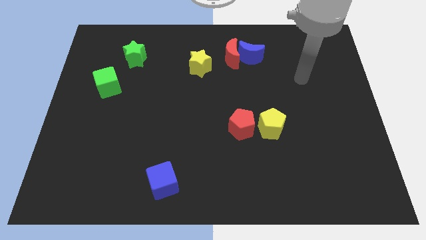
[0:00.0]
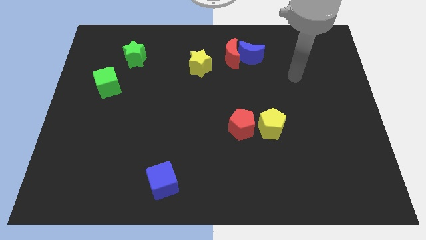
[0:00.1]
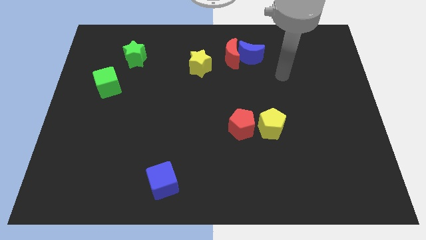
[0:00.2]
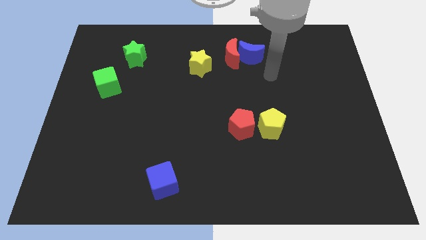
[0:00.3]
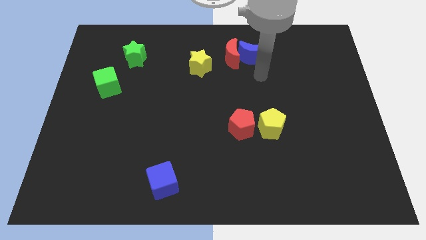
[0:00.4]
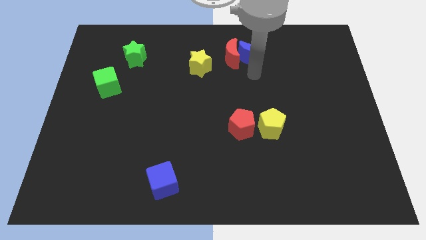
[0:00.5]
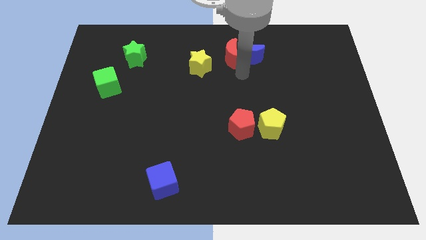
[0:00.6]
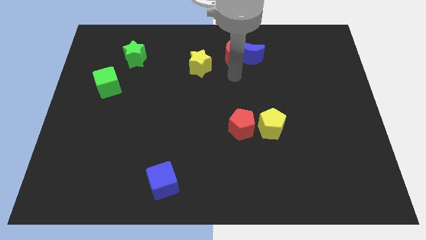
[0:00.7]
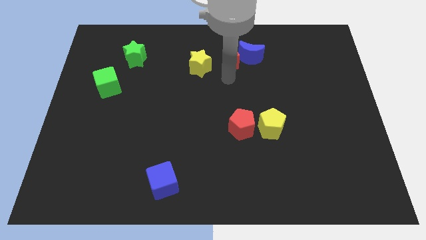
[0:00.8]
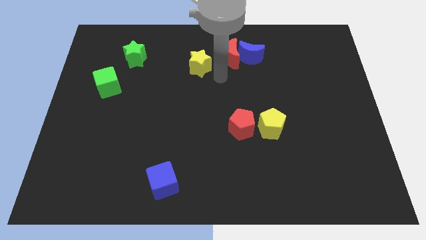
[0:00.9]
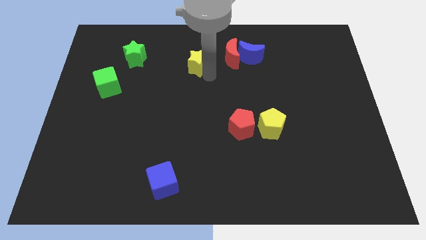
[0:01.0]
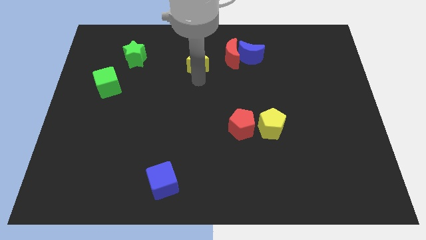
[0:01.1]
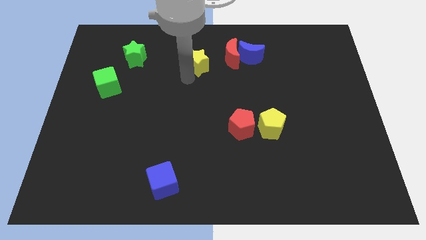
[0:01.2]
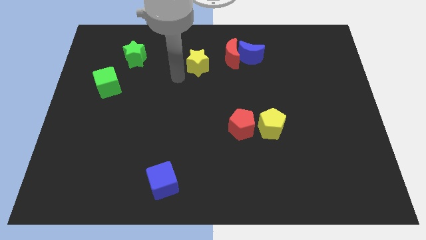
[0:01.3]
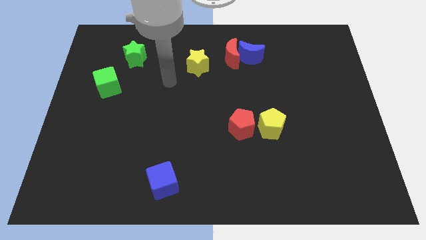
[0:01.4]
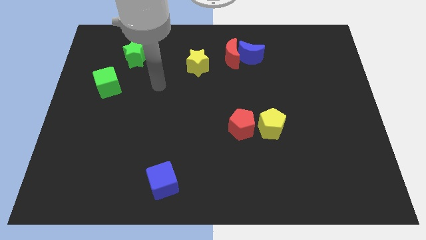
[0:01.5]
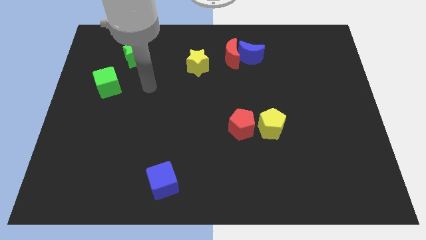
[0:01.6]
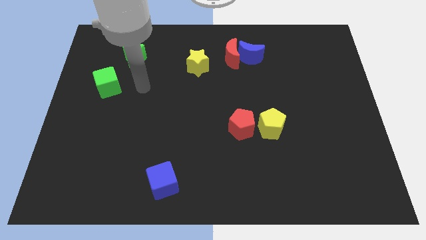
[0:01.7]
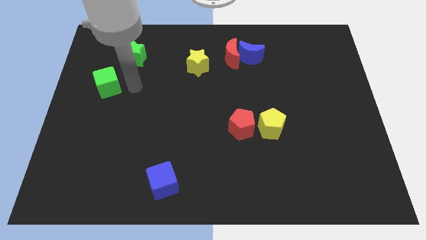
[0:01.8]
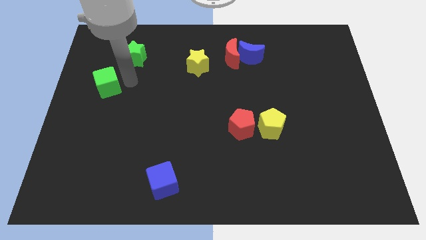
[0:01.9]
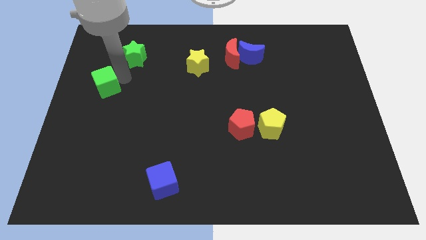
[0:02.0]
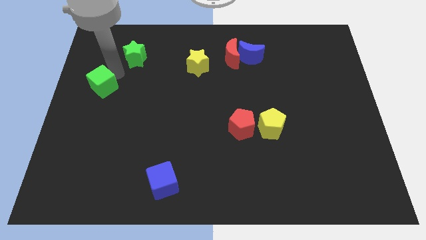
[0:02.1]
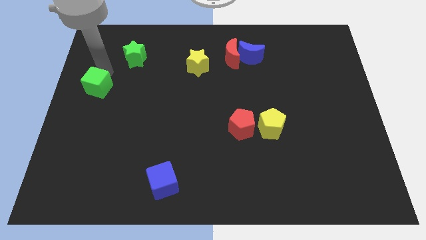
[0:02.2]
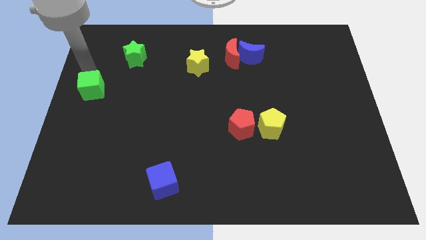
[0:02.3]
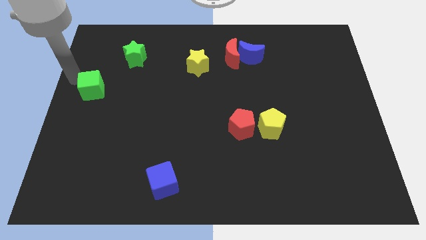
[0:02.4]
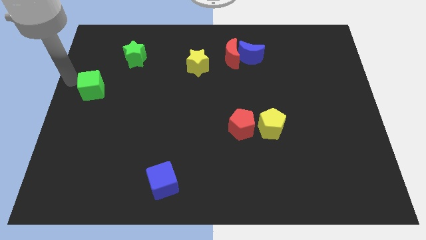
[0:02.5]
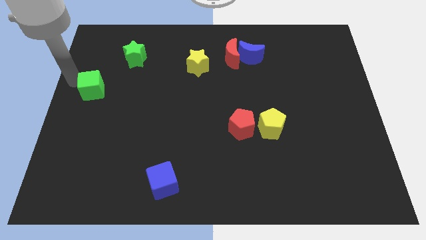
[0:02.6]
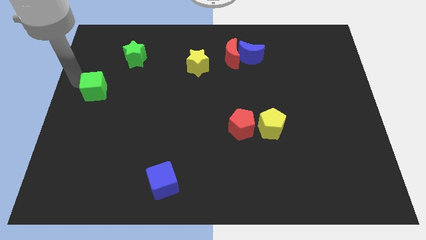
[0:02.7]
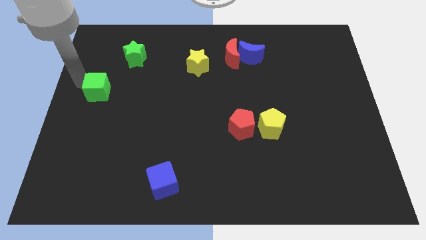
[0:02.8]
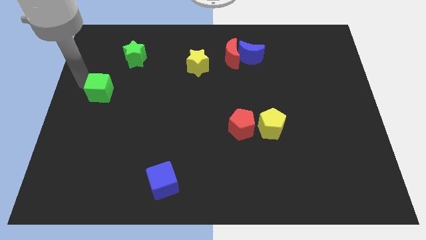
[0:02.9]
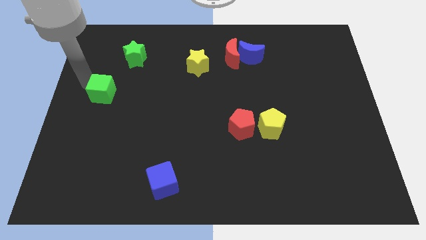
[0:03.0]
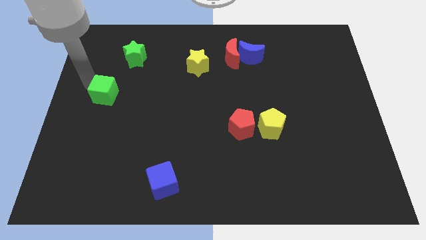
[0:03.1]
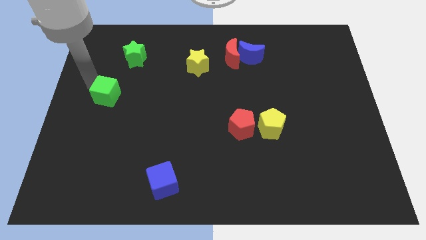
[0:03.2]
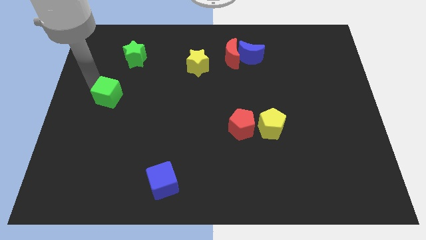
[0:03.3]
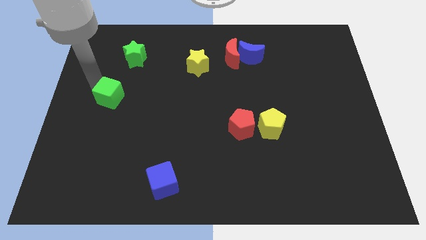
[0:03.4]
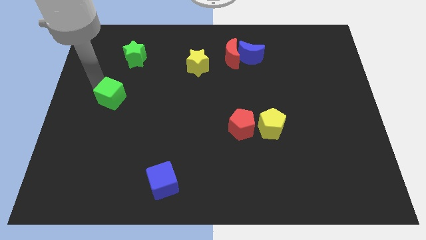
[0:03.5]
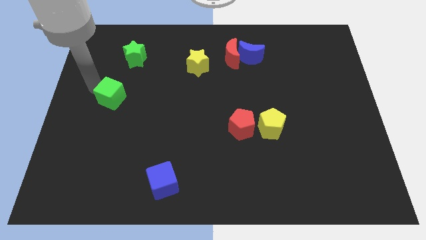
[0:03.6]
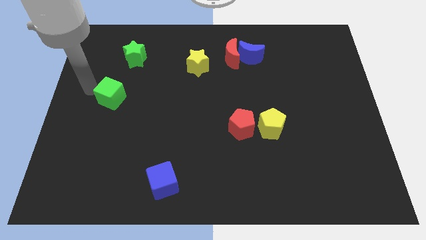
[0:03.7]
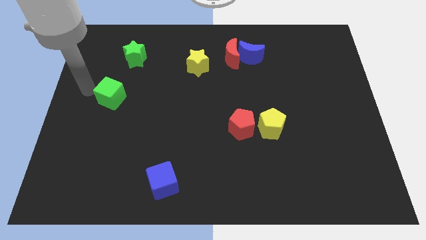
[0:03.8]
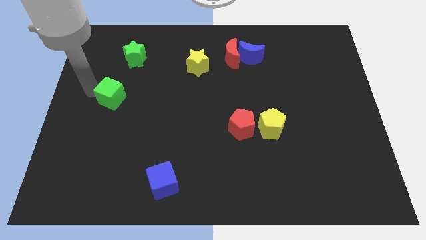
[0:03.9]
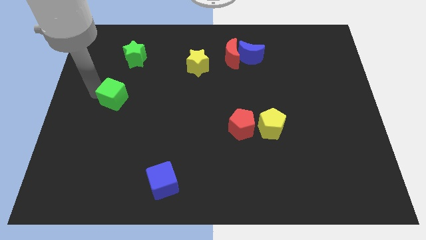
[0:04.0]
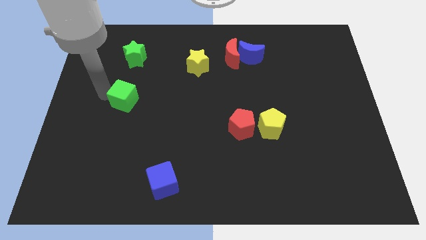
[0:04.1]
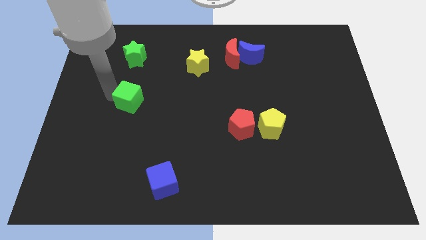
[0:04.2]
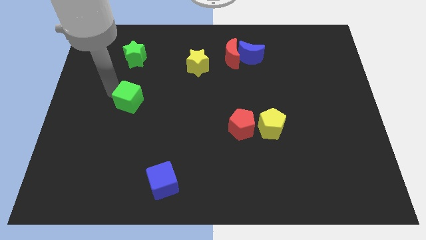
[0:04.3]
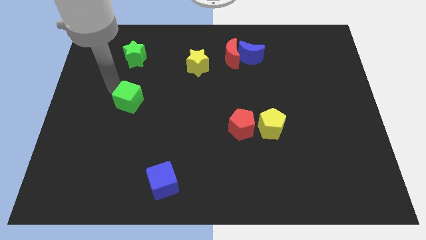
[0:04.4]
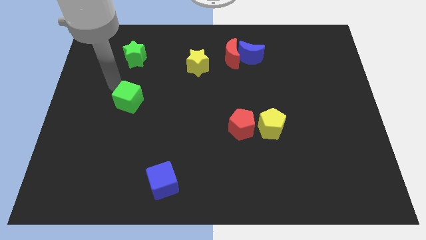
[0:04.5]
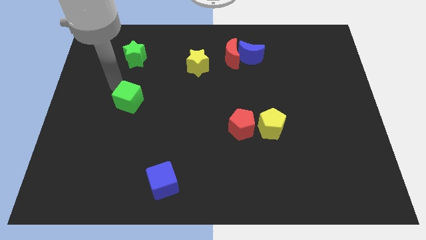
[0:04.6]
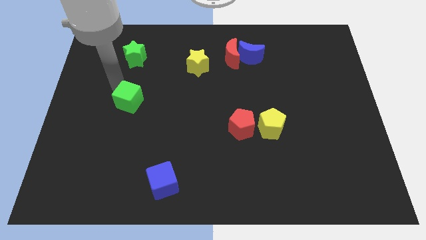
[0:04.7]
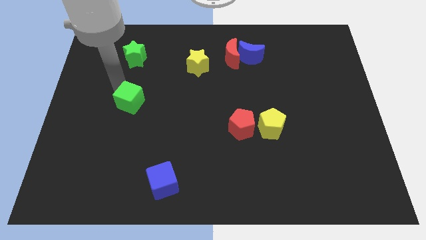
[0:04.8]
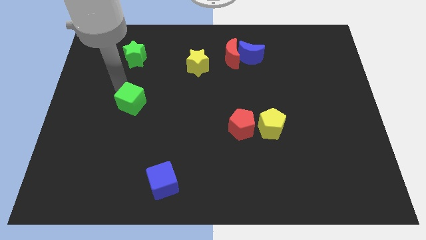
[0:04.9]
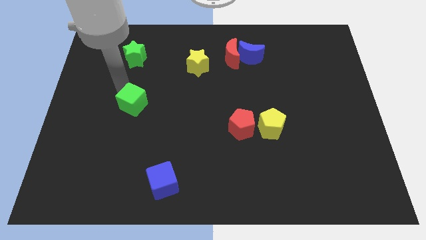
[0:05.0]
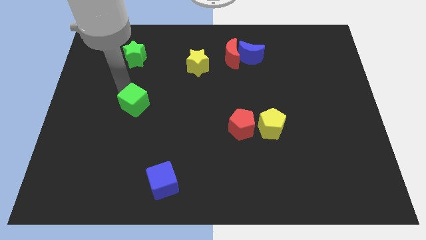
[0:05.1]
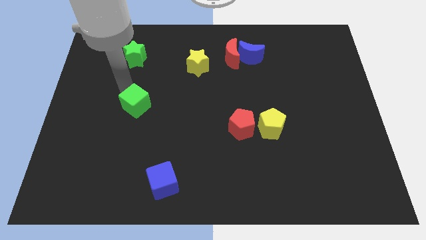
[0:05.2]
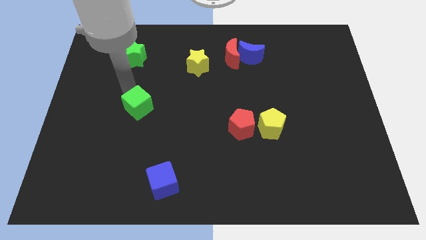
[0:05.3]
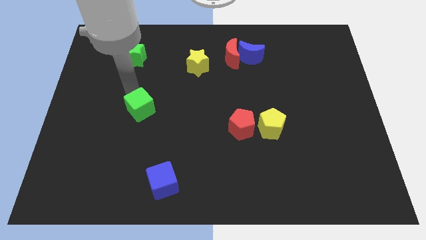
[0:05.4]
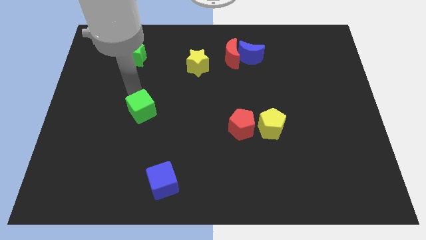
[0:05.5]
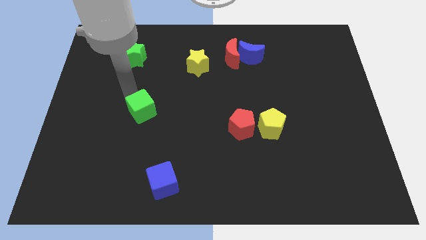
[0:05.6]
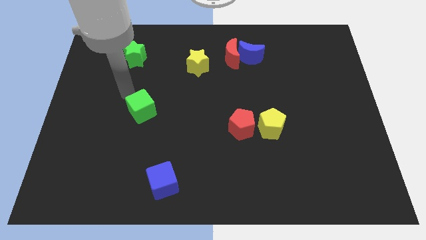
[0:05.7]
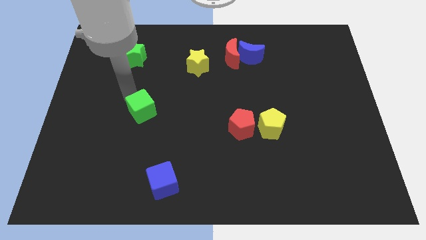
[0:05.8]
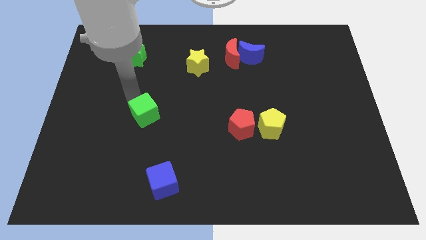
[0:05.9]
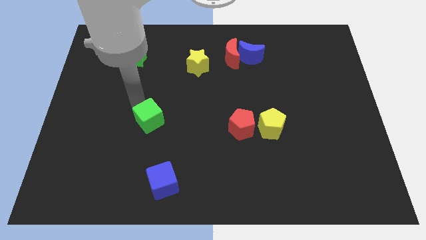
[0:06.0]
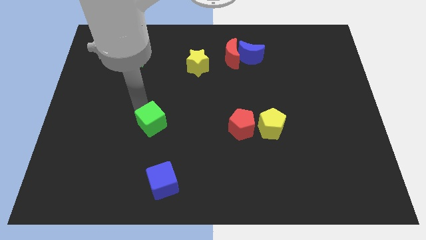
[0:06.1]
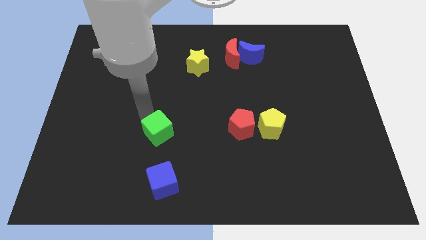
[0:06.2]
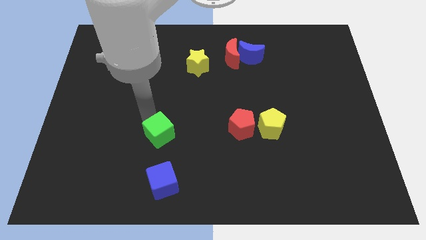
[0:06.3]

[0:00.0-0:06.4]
push the green cube down and then right

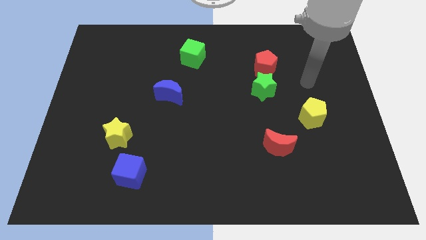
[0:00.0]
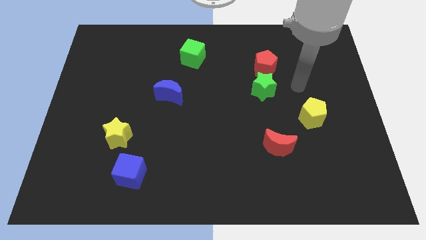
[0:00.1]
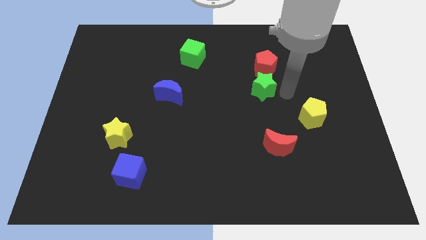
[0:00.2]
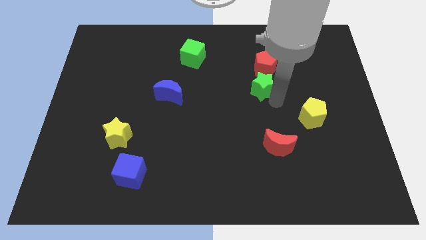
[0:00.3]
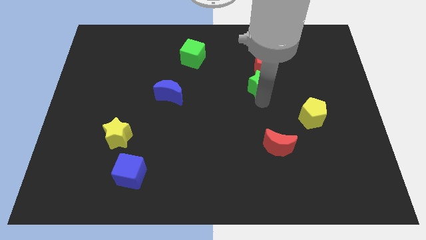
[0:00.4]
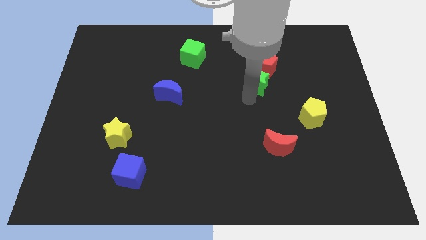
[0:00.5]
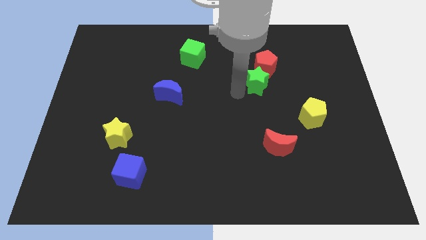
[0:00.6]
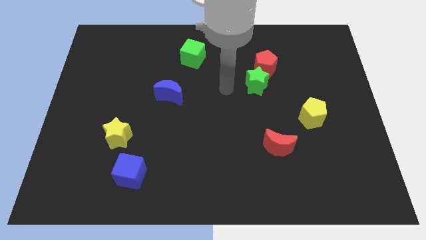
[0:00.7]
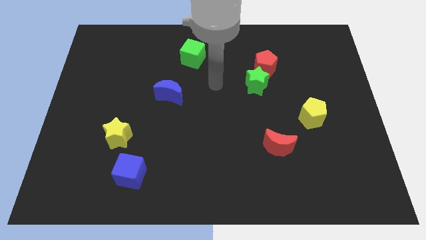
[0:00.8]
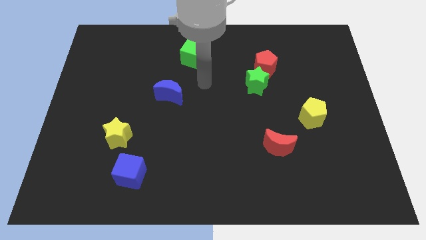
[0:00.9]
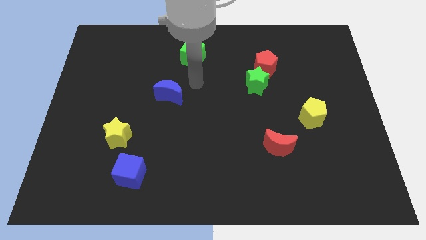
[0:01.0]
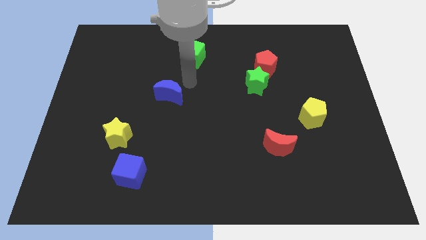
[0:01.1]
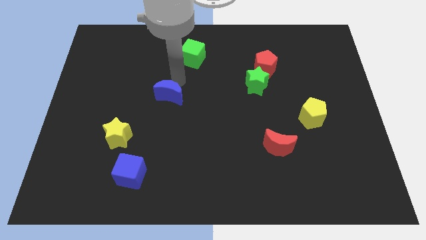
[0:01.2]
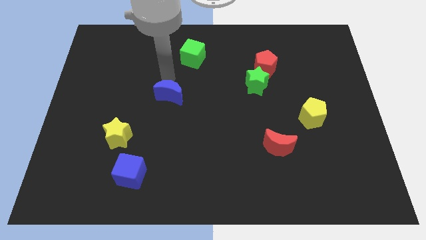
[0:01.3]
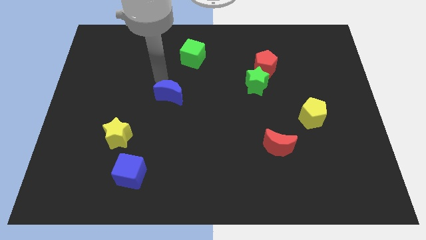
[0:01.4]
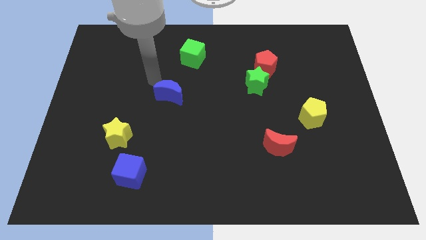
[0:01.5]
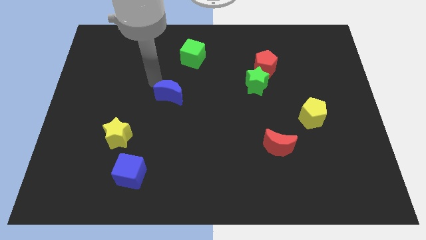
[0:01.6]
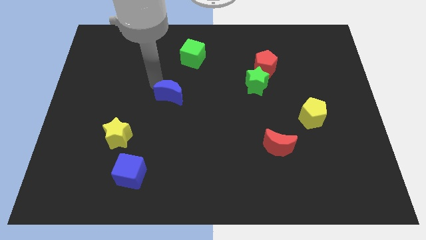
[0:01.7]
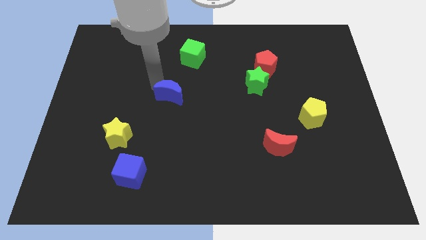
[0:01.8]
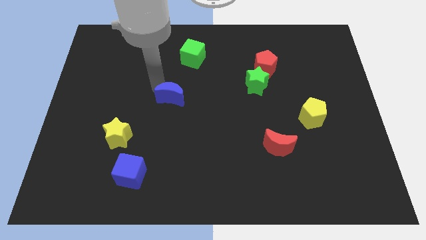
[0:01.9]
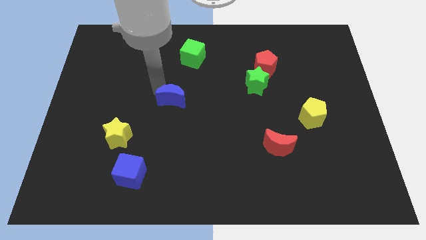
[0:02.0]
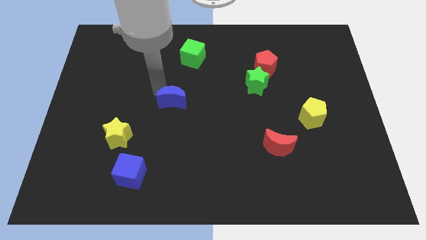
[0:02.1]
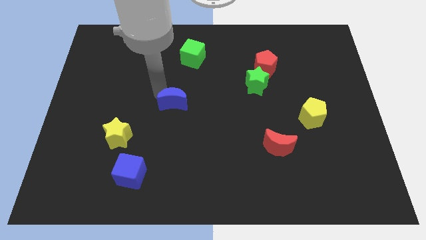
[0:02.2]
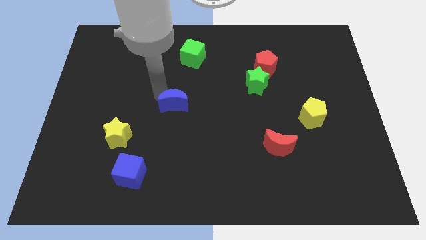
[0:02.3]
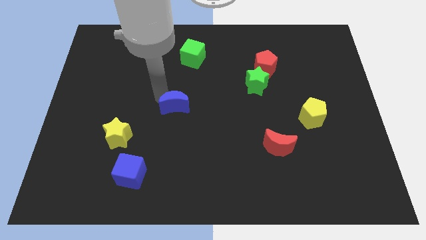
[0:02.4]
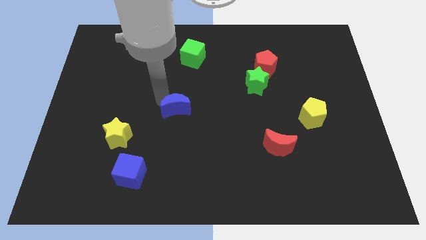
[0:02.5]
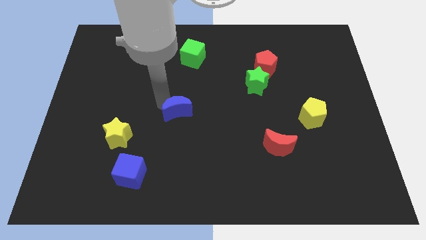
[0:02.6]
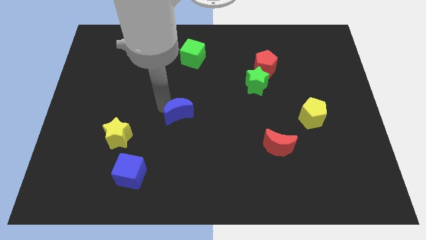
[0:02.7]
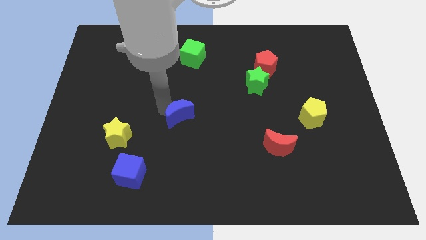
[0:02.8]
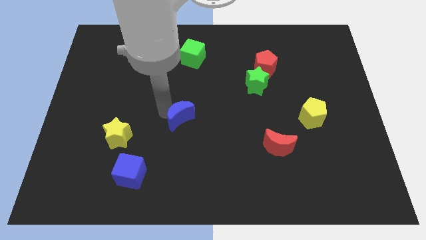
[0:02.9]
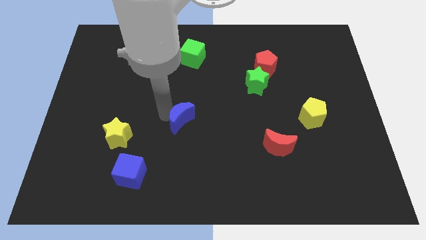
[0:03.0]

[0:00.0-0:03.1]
push the blue moon somewhat diagonally down and right
